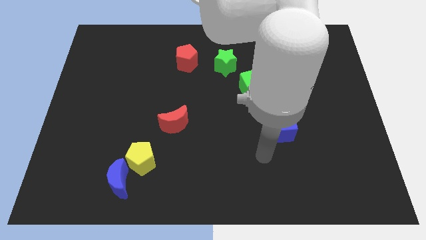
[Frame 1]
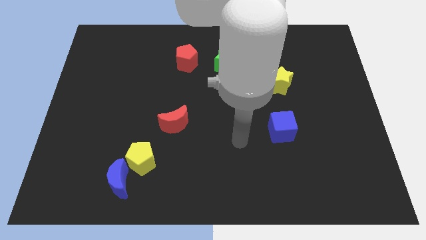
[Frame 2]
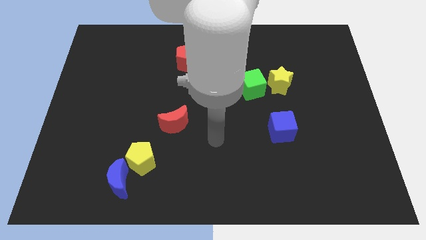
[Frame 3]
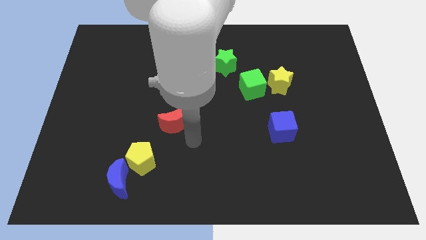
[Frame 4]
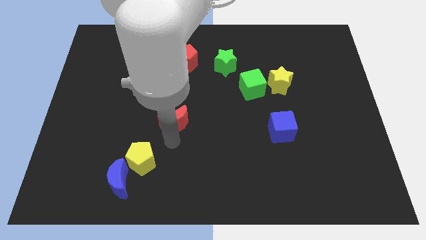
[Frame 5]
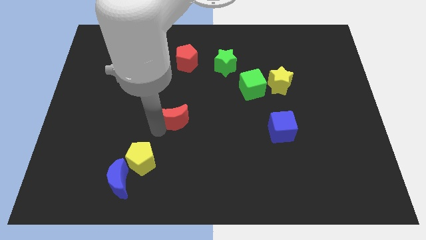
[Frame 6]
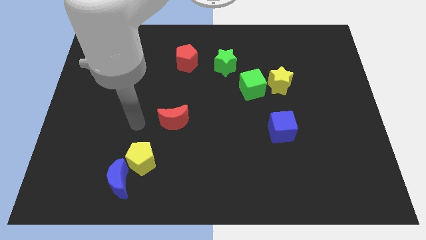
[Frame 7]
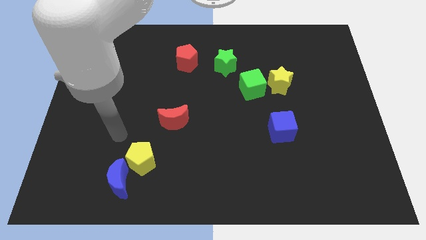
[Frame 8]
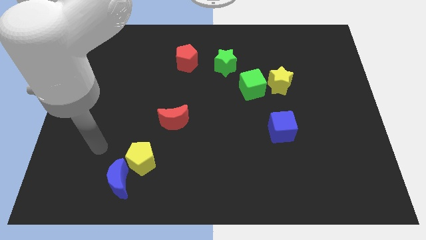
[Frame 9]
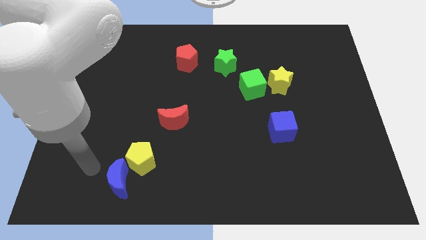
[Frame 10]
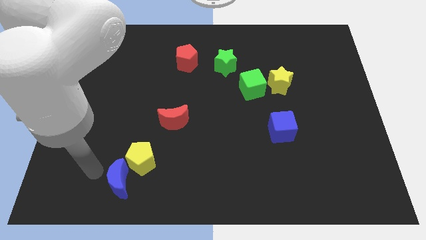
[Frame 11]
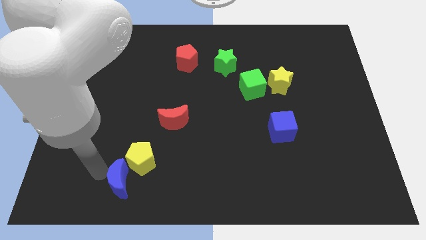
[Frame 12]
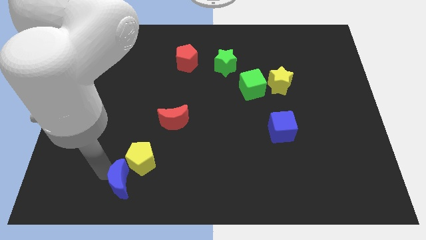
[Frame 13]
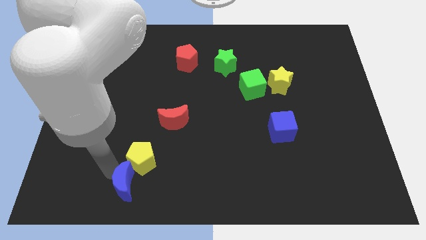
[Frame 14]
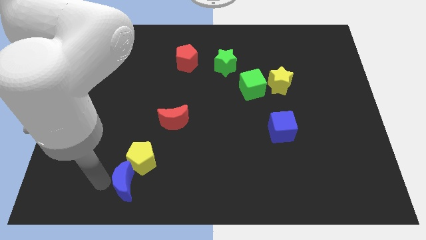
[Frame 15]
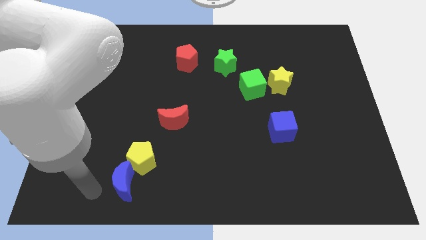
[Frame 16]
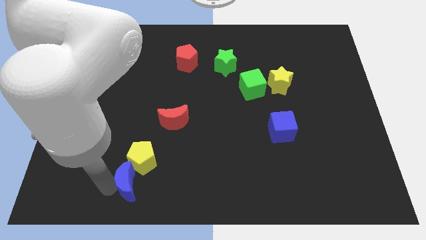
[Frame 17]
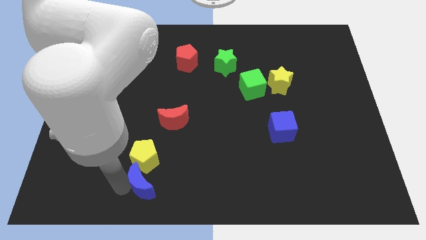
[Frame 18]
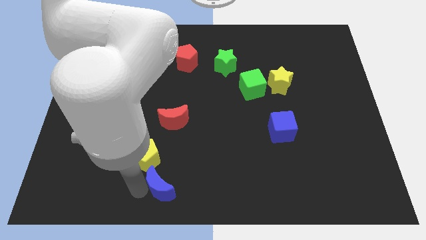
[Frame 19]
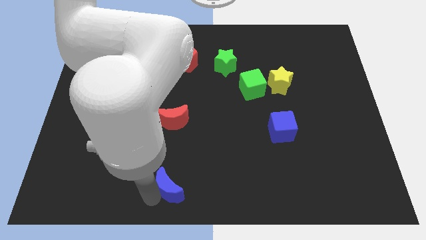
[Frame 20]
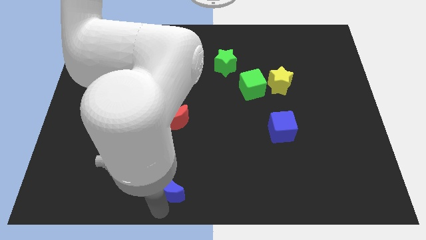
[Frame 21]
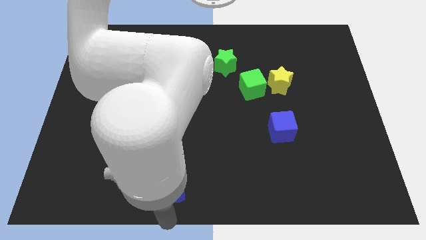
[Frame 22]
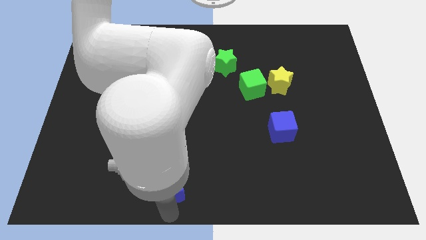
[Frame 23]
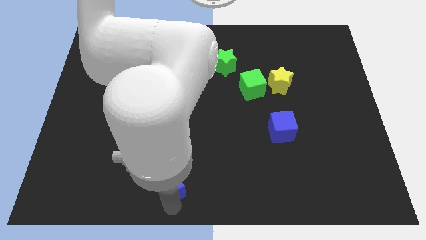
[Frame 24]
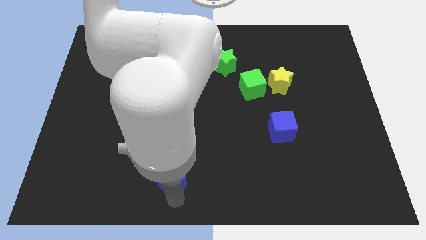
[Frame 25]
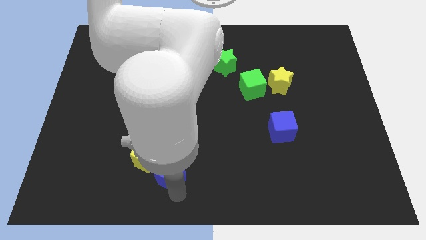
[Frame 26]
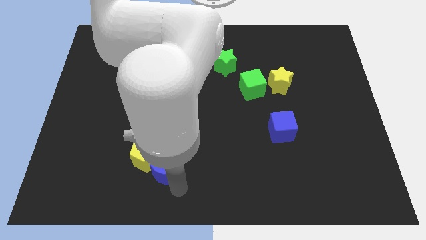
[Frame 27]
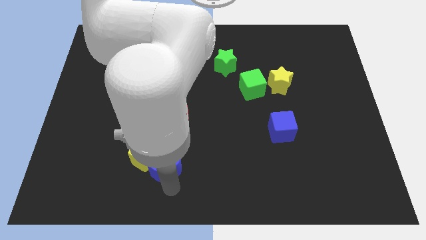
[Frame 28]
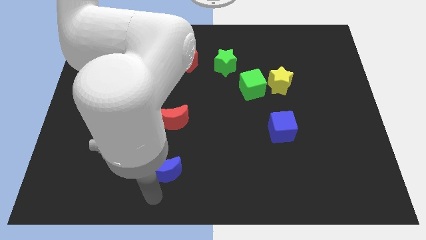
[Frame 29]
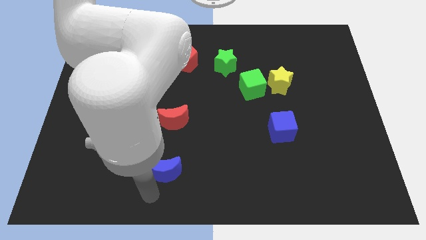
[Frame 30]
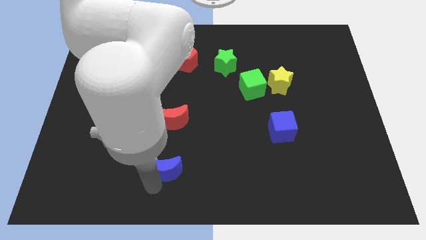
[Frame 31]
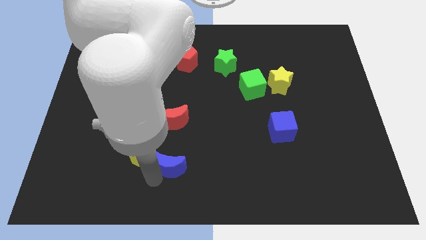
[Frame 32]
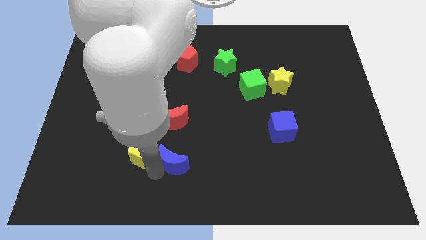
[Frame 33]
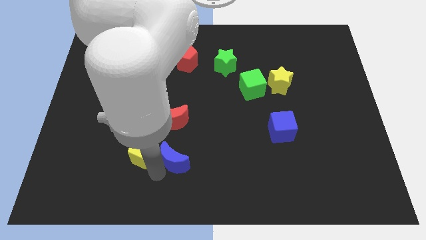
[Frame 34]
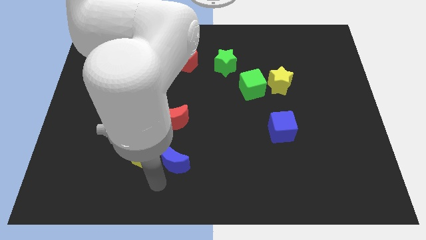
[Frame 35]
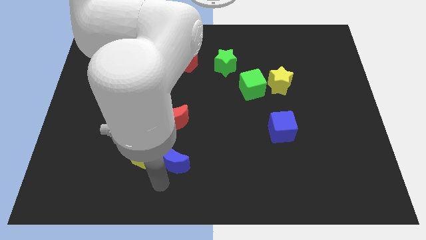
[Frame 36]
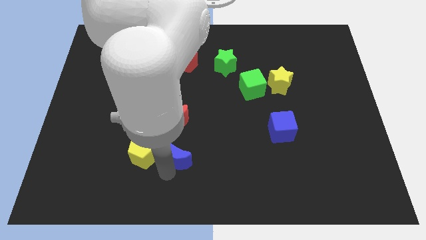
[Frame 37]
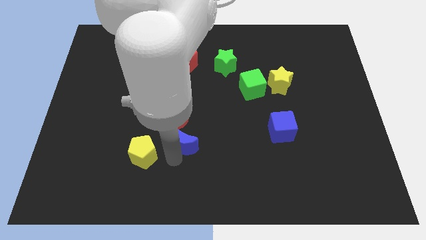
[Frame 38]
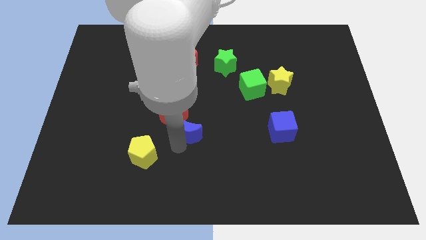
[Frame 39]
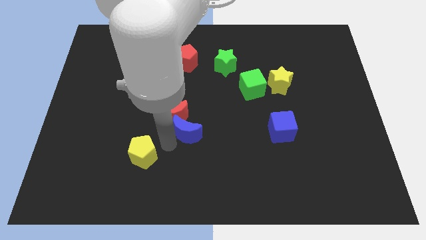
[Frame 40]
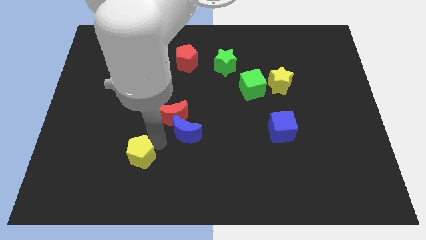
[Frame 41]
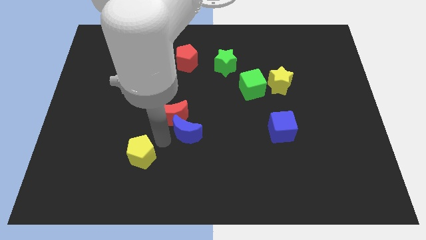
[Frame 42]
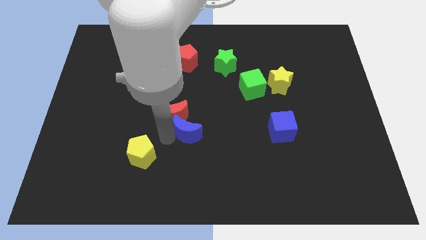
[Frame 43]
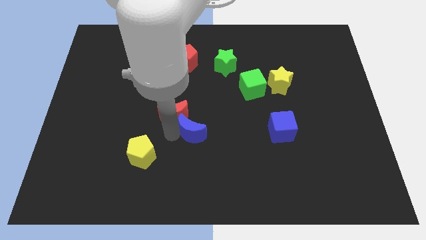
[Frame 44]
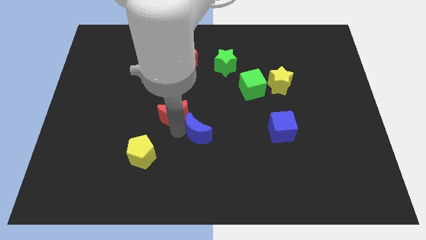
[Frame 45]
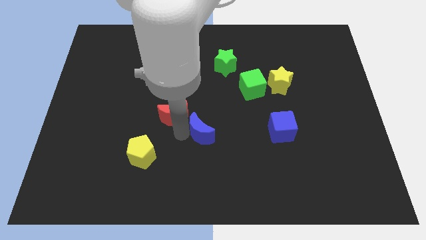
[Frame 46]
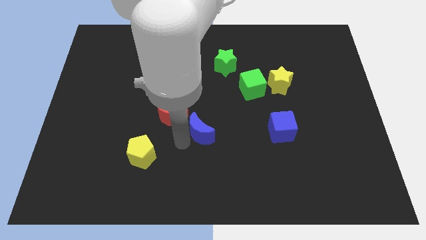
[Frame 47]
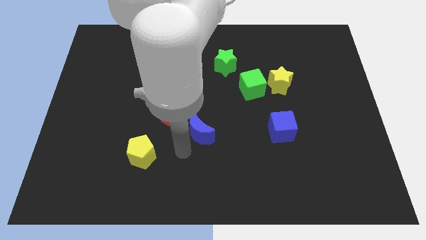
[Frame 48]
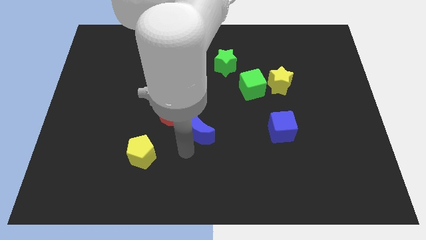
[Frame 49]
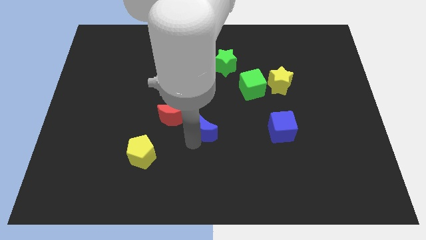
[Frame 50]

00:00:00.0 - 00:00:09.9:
slide the blue moon upwards and to the right

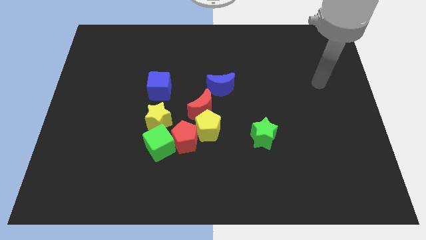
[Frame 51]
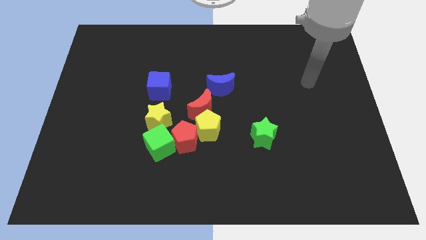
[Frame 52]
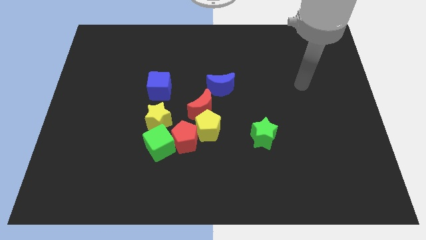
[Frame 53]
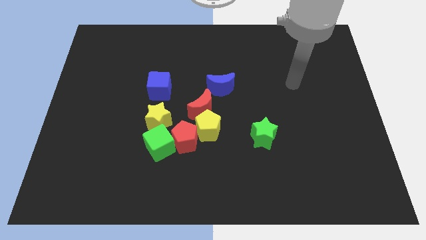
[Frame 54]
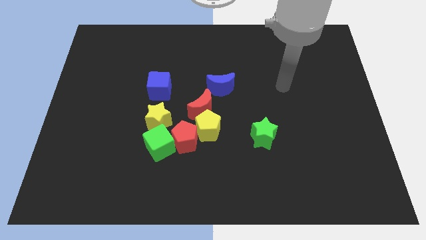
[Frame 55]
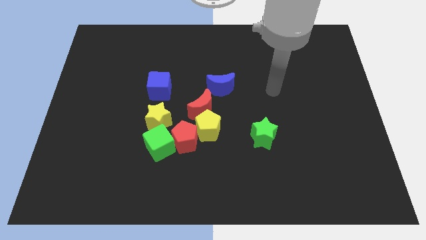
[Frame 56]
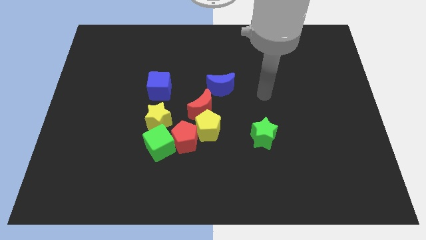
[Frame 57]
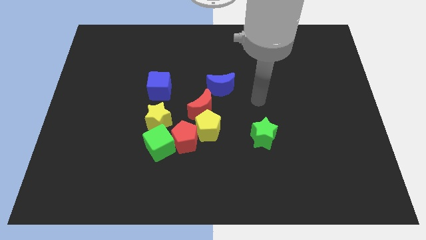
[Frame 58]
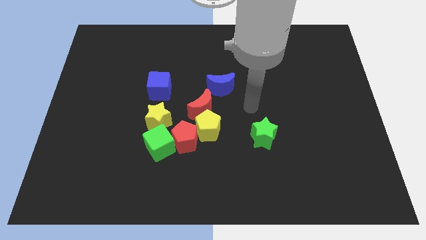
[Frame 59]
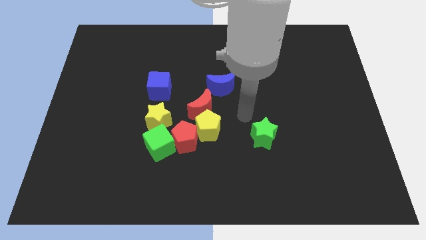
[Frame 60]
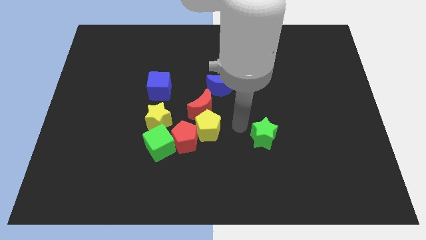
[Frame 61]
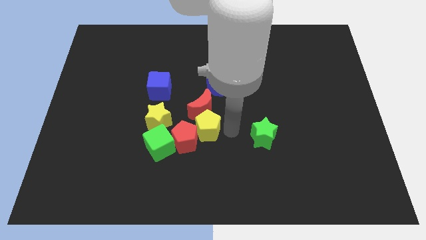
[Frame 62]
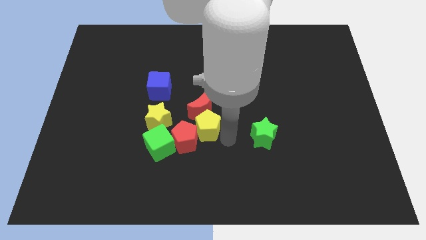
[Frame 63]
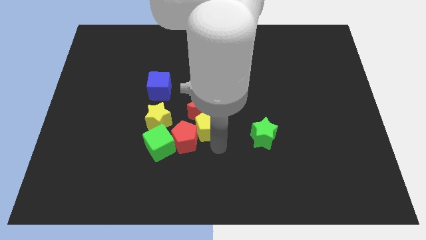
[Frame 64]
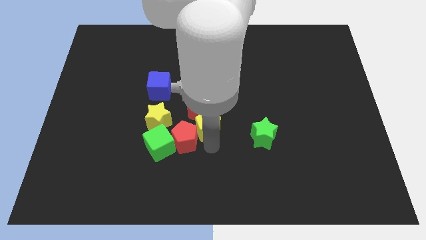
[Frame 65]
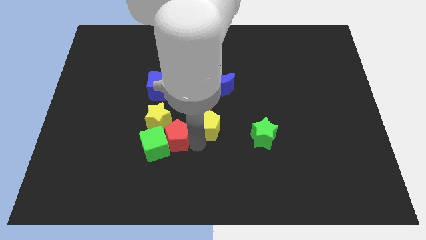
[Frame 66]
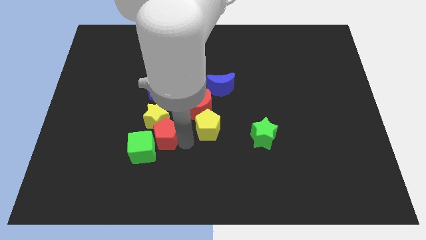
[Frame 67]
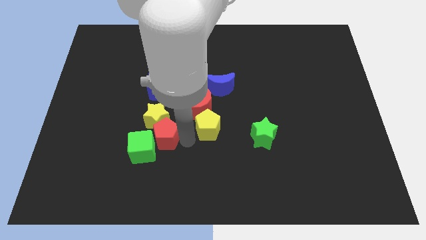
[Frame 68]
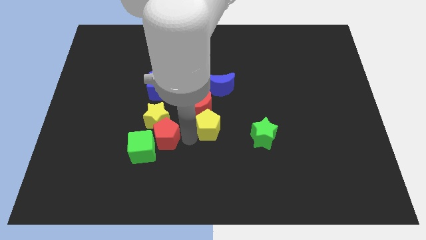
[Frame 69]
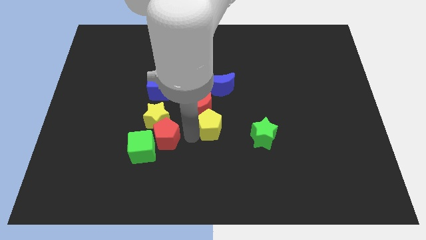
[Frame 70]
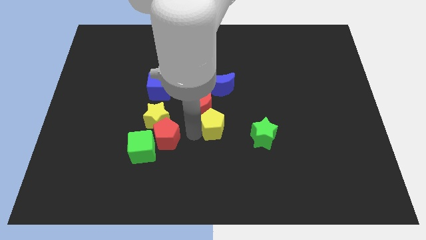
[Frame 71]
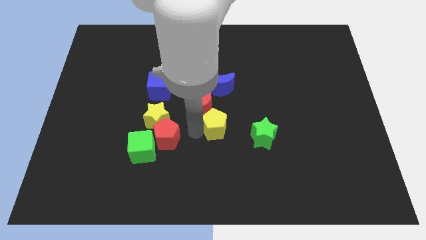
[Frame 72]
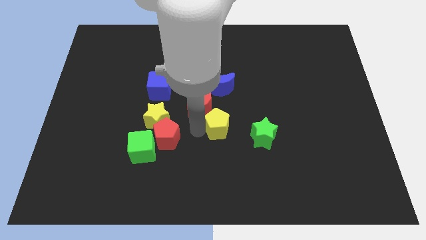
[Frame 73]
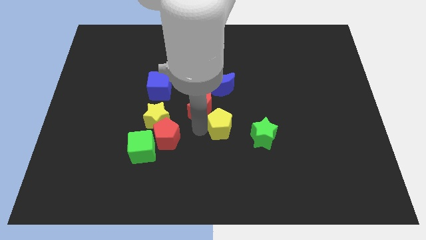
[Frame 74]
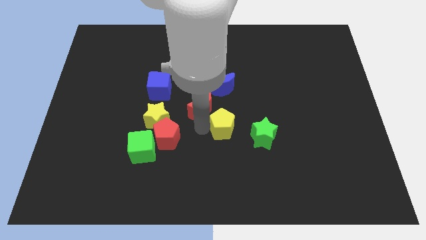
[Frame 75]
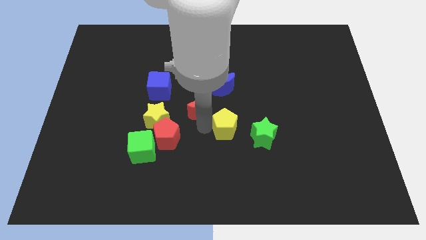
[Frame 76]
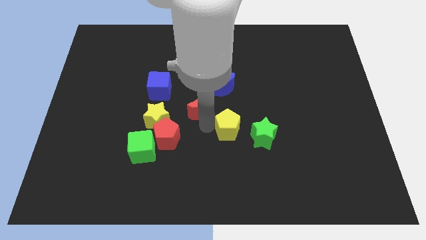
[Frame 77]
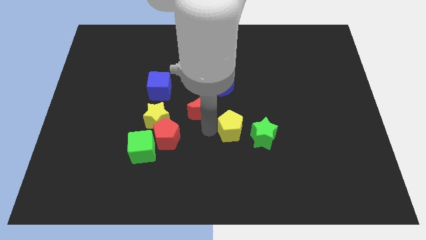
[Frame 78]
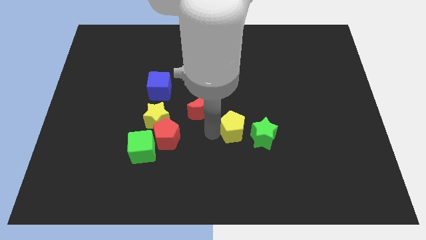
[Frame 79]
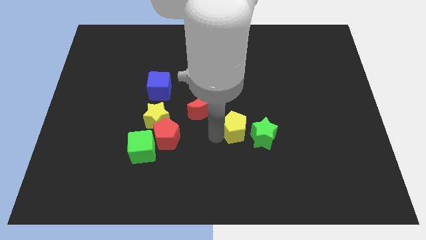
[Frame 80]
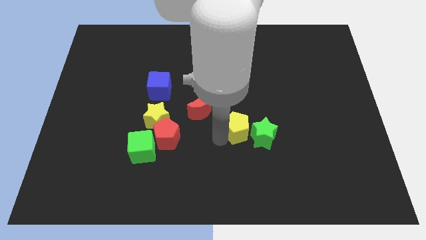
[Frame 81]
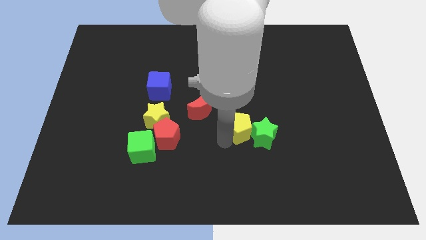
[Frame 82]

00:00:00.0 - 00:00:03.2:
slightly push the yellow pentagon right
